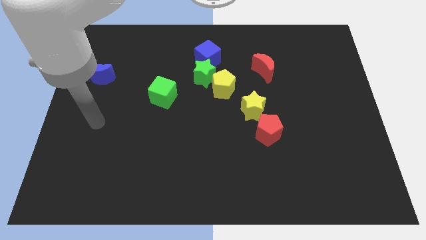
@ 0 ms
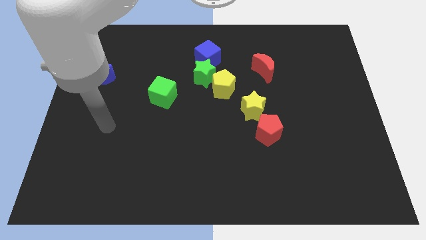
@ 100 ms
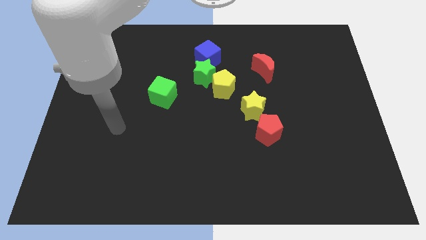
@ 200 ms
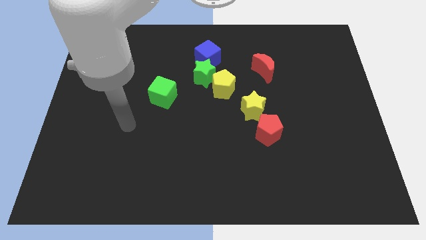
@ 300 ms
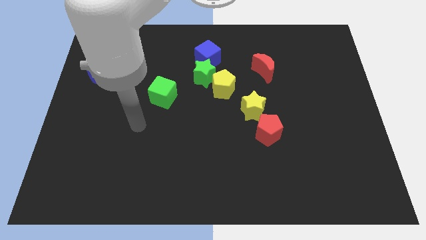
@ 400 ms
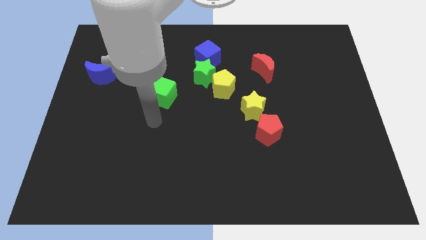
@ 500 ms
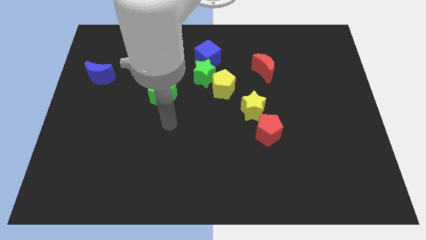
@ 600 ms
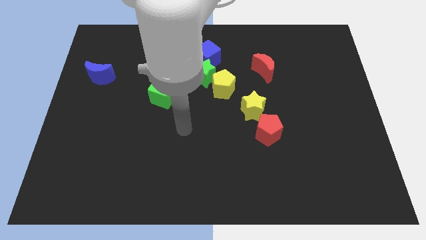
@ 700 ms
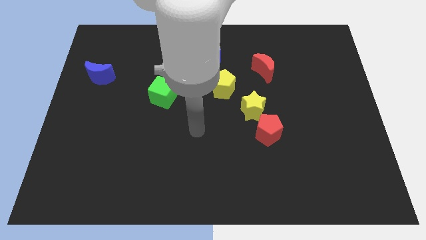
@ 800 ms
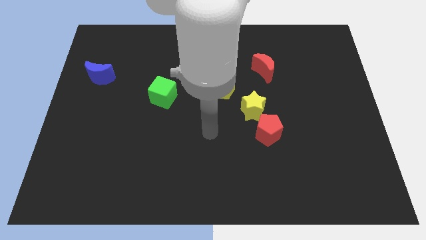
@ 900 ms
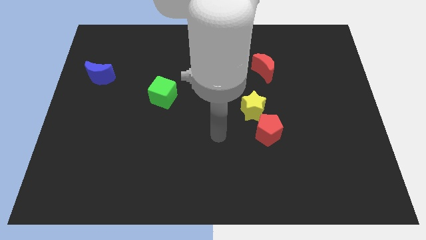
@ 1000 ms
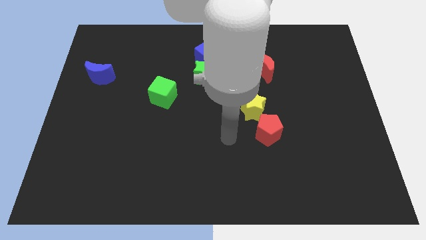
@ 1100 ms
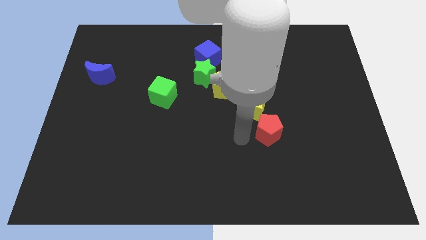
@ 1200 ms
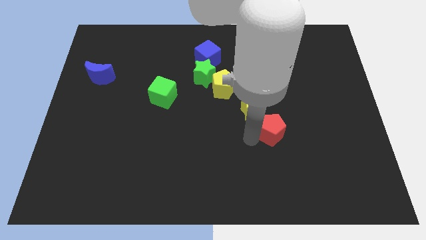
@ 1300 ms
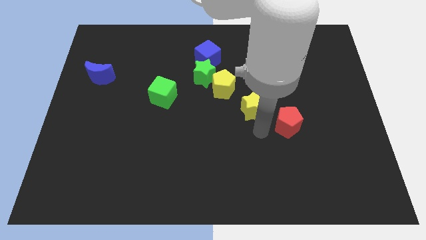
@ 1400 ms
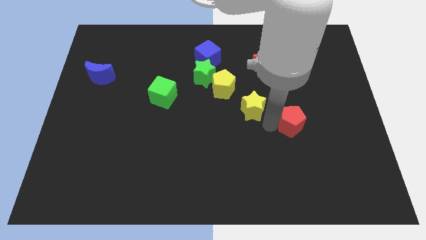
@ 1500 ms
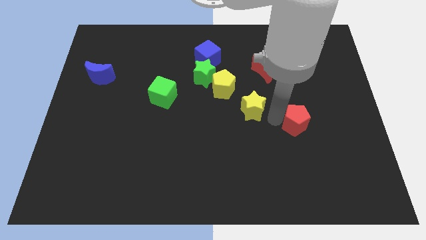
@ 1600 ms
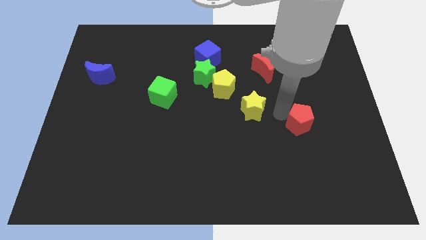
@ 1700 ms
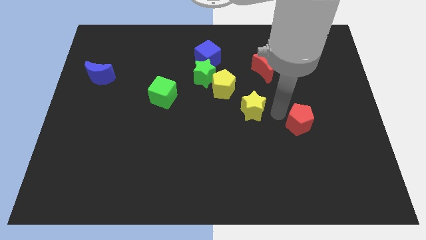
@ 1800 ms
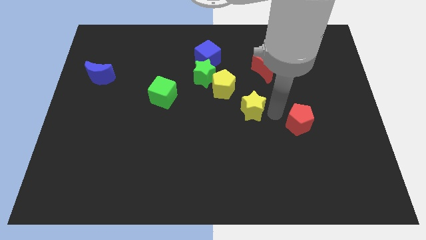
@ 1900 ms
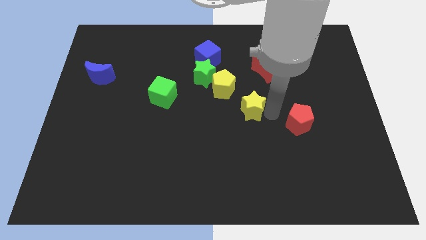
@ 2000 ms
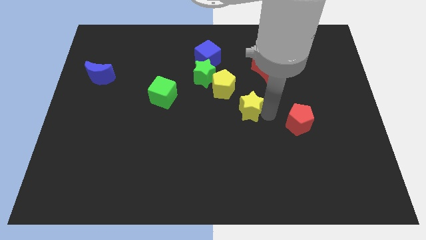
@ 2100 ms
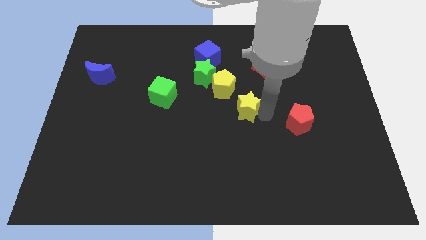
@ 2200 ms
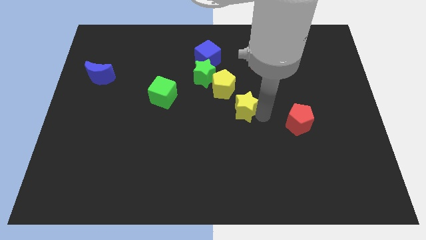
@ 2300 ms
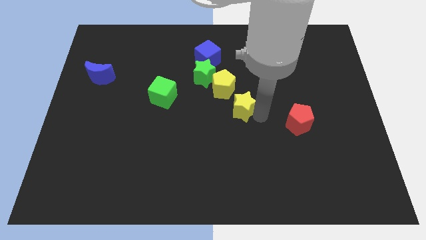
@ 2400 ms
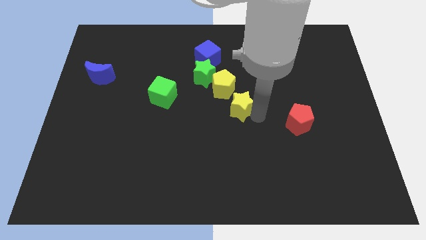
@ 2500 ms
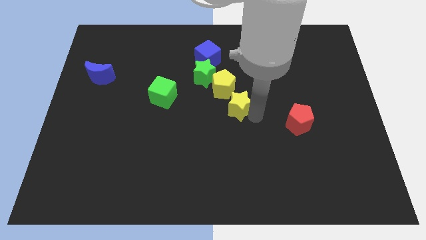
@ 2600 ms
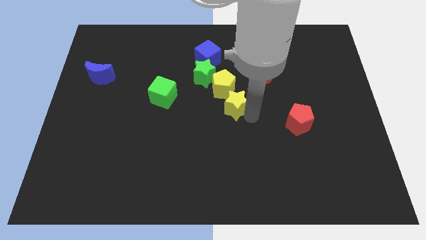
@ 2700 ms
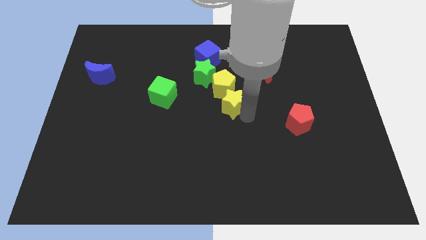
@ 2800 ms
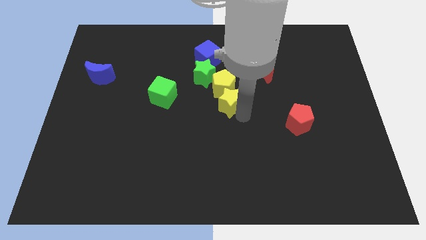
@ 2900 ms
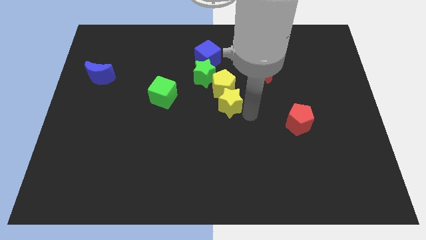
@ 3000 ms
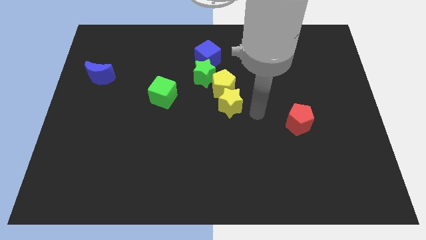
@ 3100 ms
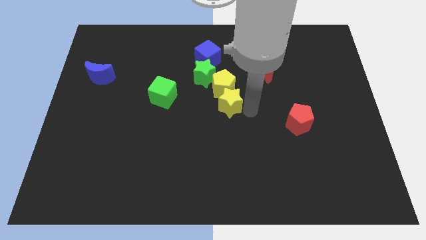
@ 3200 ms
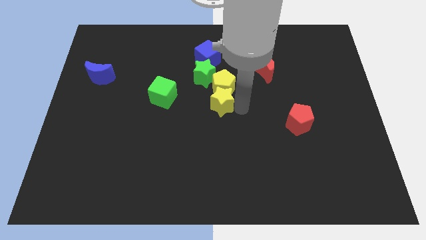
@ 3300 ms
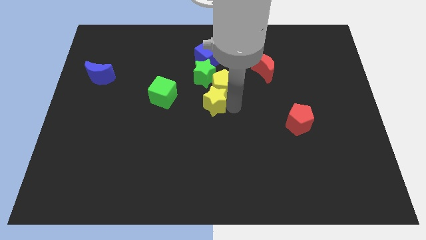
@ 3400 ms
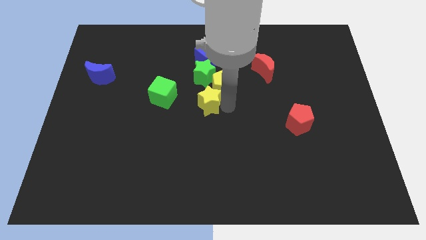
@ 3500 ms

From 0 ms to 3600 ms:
move the yellow star a bit up and then left

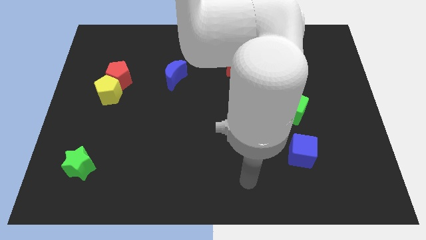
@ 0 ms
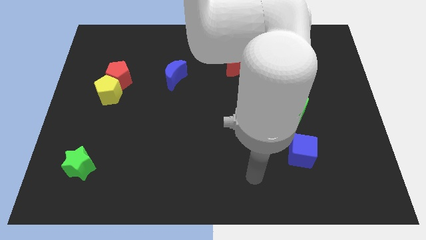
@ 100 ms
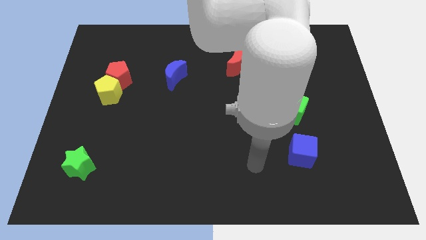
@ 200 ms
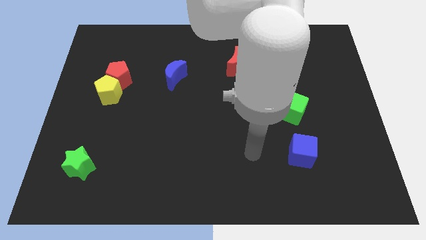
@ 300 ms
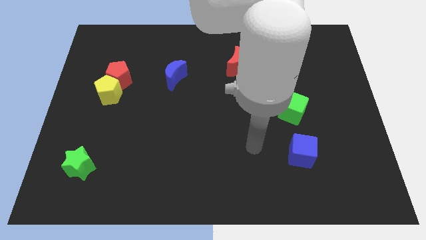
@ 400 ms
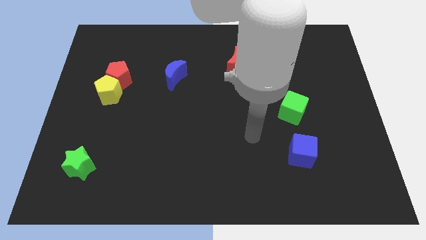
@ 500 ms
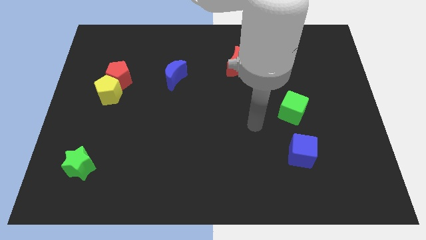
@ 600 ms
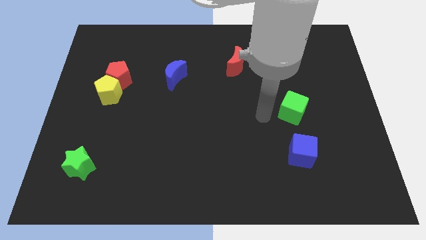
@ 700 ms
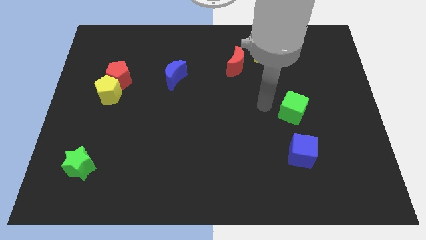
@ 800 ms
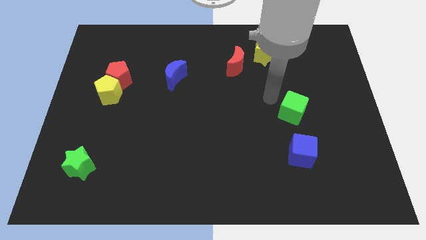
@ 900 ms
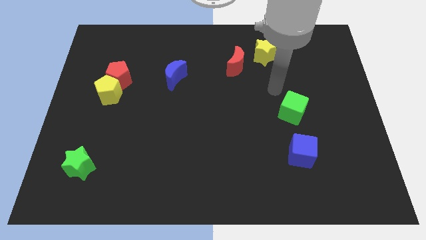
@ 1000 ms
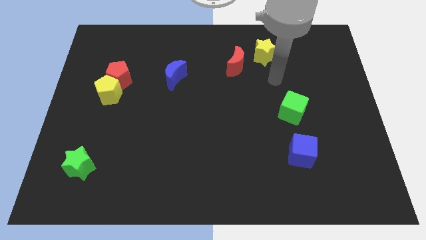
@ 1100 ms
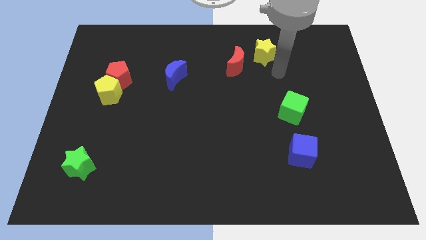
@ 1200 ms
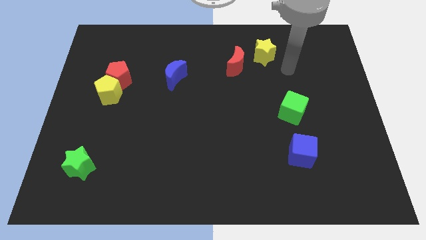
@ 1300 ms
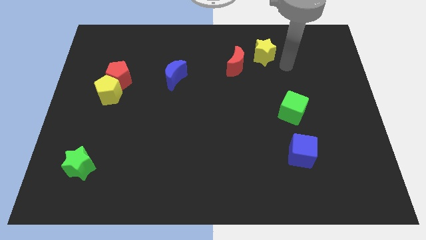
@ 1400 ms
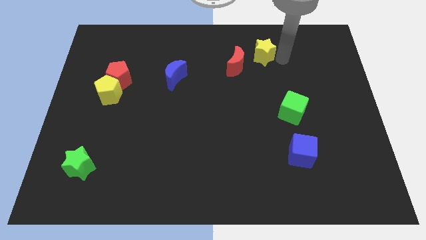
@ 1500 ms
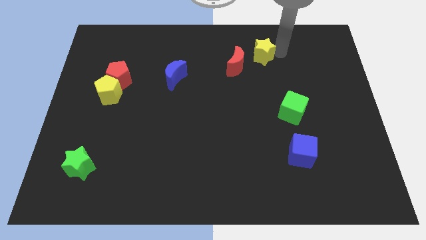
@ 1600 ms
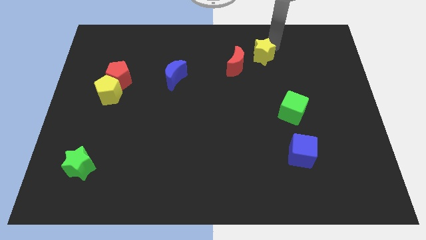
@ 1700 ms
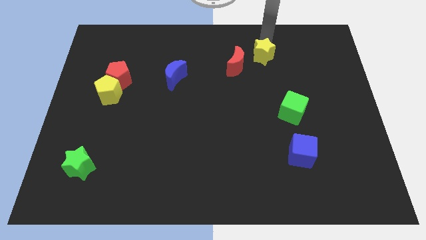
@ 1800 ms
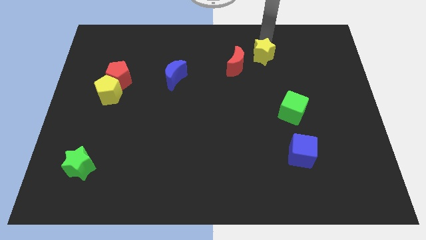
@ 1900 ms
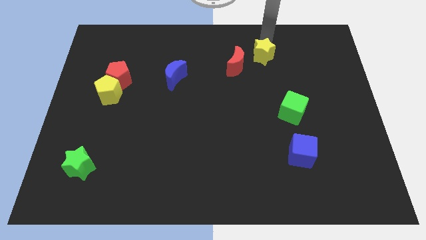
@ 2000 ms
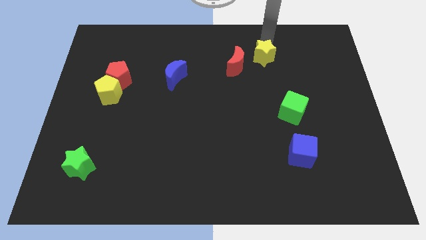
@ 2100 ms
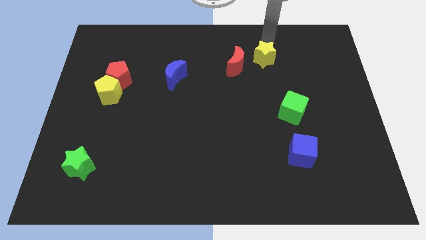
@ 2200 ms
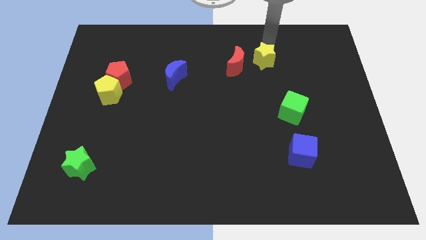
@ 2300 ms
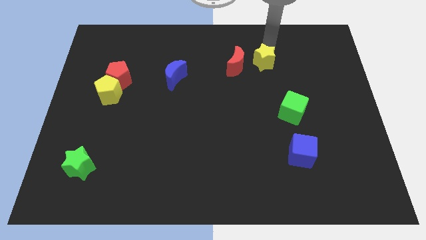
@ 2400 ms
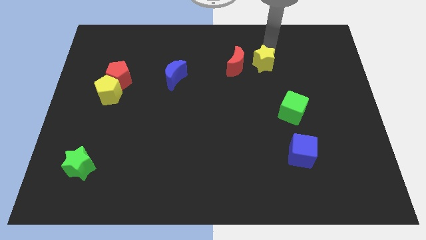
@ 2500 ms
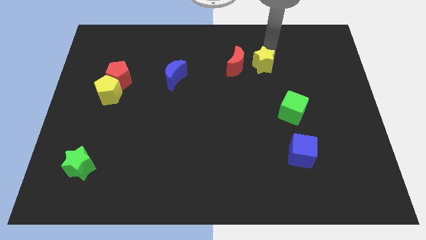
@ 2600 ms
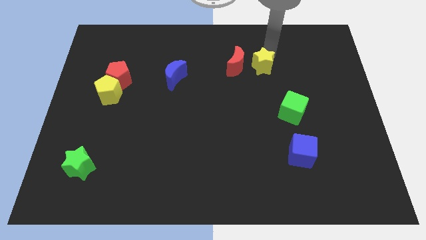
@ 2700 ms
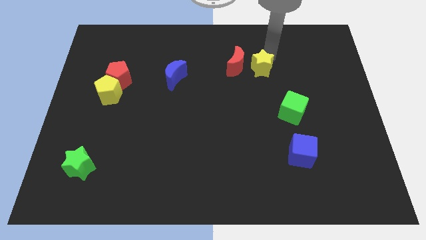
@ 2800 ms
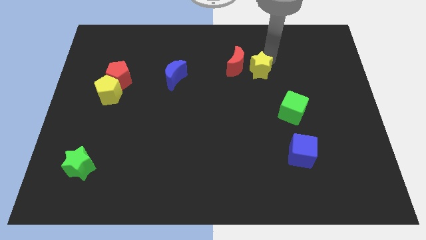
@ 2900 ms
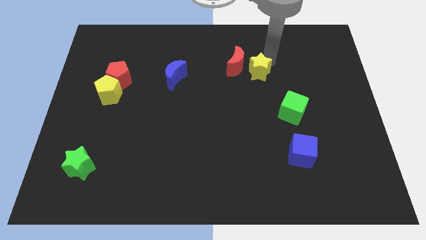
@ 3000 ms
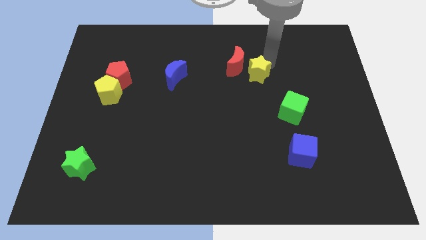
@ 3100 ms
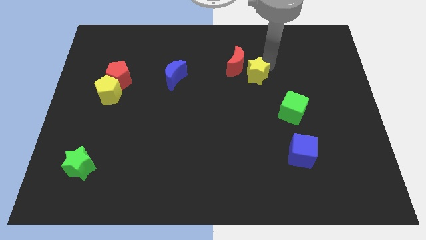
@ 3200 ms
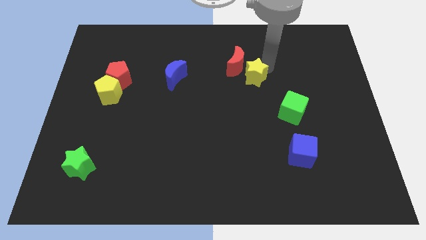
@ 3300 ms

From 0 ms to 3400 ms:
push the yellow star a little diagonally down and to the left

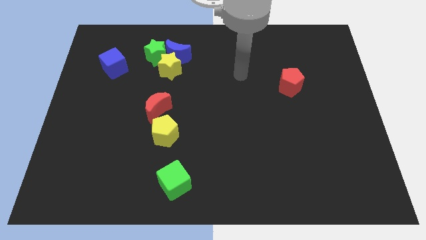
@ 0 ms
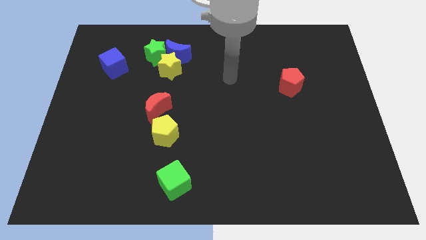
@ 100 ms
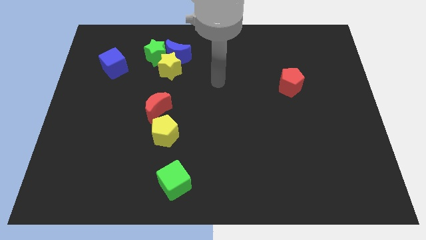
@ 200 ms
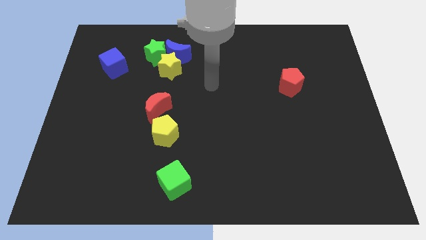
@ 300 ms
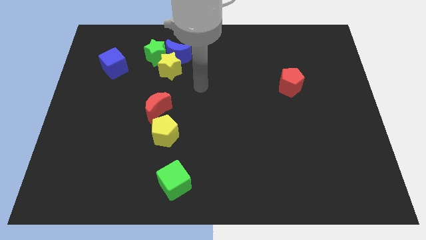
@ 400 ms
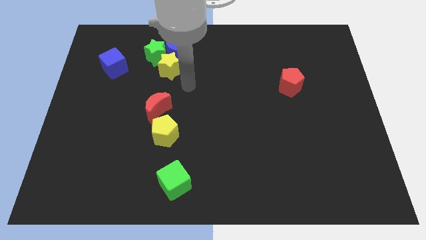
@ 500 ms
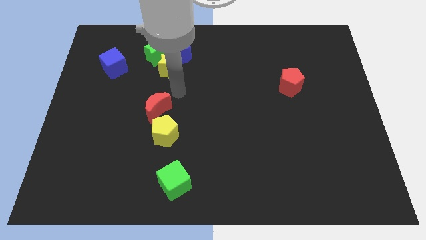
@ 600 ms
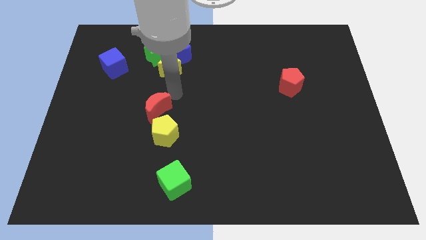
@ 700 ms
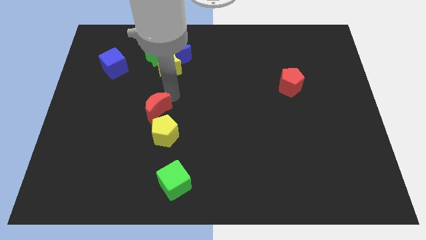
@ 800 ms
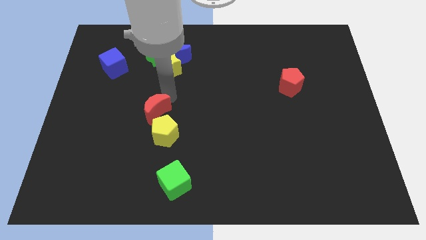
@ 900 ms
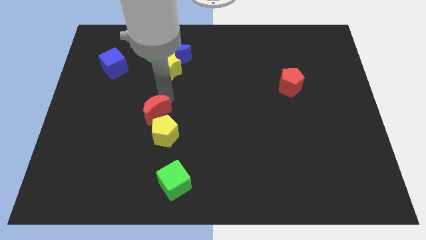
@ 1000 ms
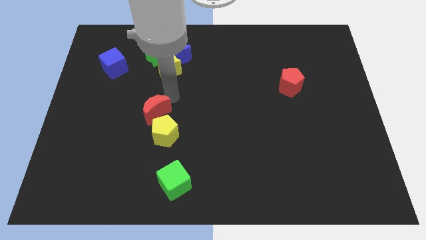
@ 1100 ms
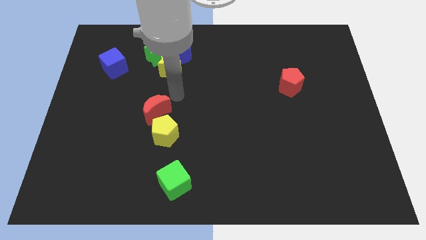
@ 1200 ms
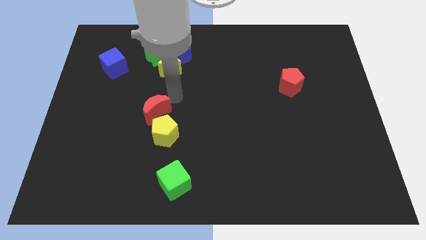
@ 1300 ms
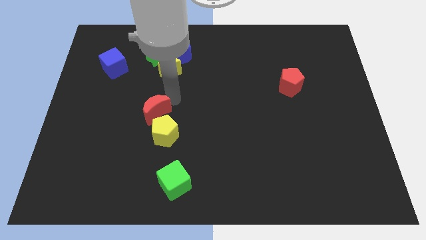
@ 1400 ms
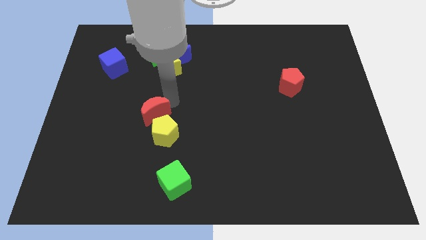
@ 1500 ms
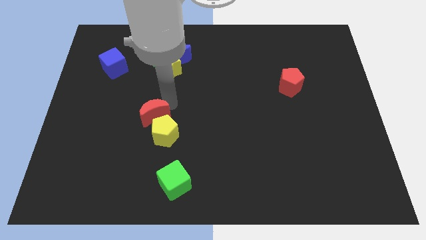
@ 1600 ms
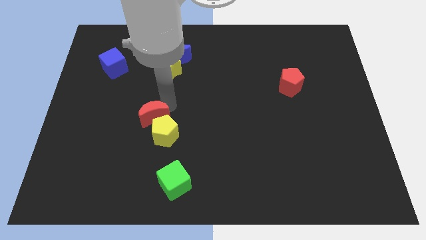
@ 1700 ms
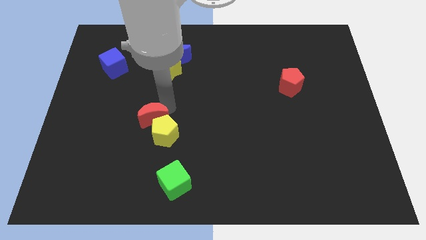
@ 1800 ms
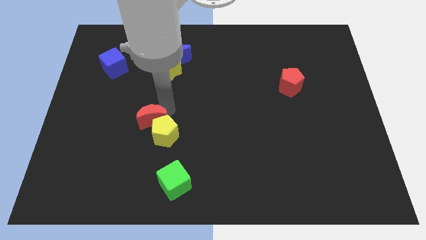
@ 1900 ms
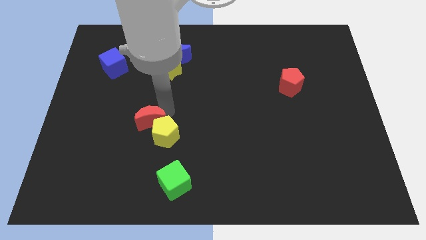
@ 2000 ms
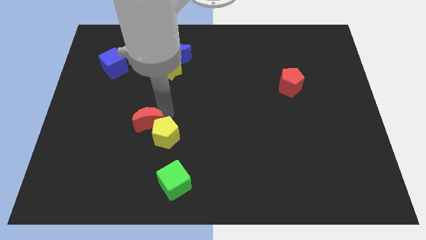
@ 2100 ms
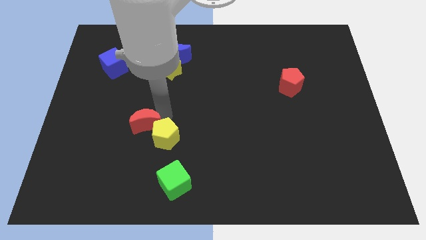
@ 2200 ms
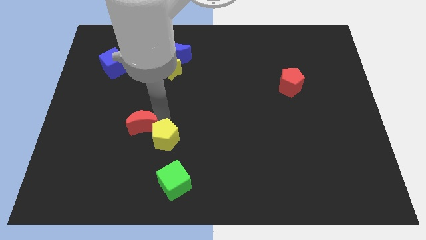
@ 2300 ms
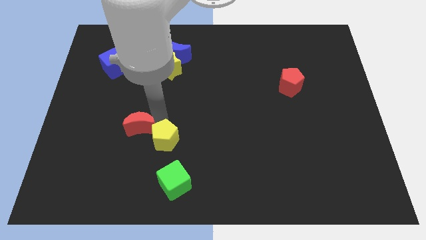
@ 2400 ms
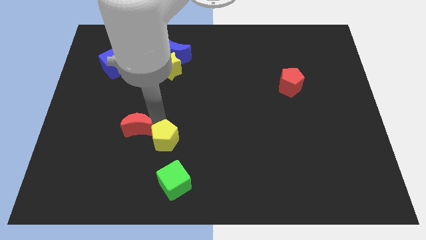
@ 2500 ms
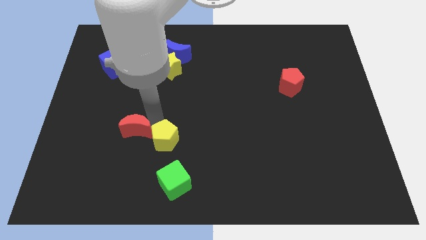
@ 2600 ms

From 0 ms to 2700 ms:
slightly push the red moon downwards and left
